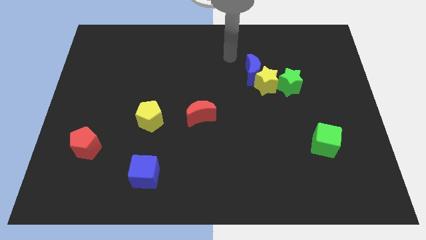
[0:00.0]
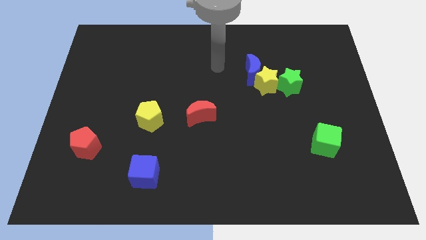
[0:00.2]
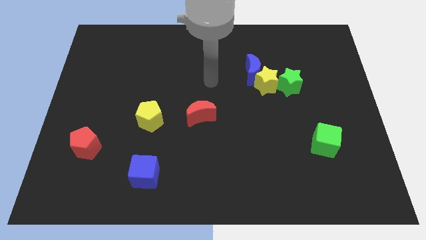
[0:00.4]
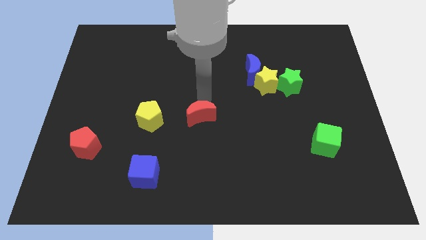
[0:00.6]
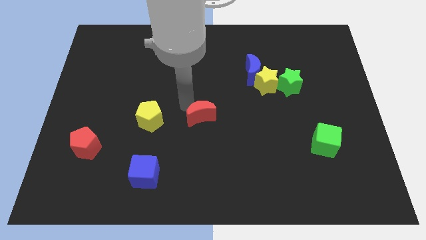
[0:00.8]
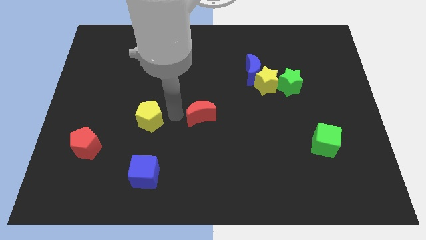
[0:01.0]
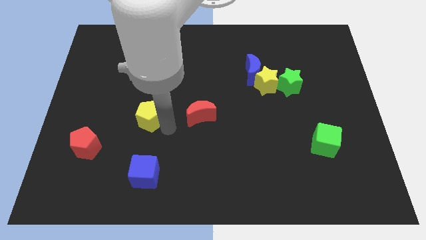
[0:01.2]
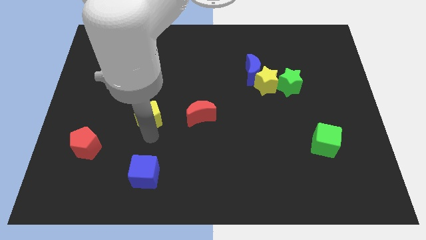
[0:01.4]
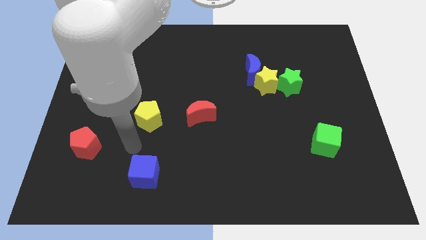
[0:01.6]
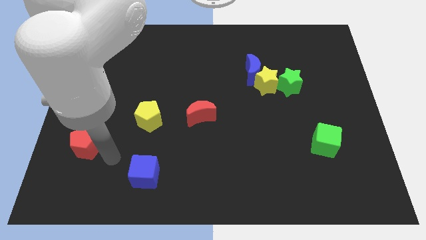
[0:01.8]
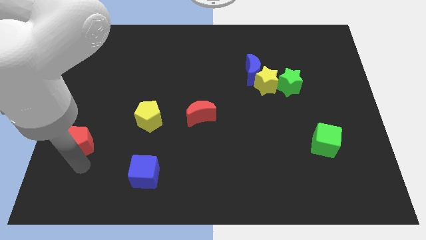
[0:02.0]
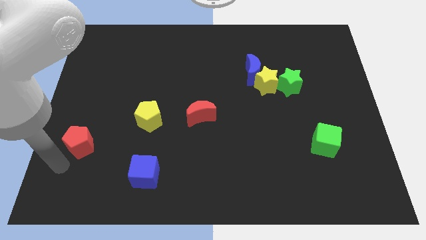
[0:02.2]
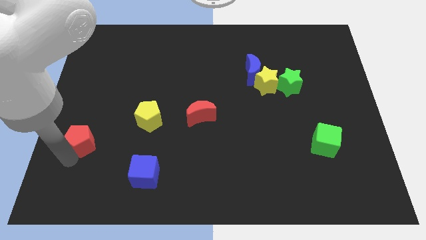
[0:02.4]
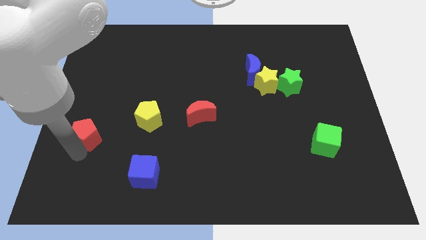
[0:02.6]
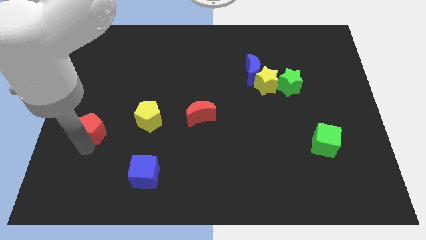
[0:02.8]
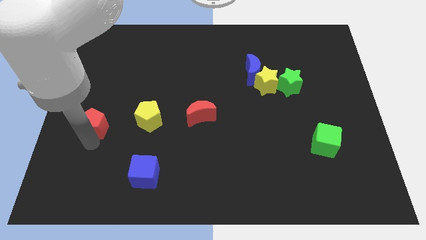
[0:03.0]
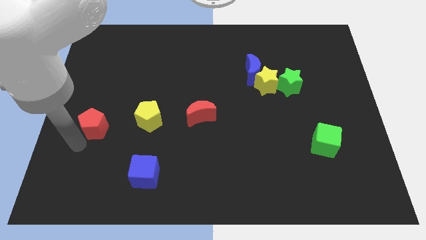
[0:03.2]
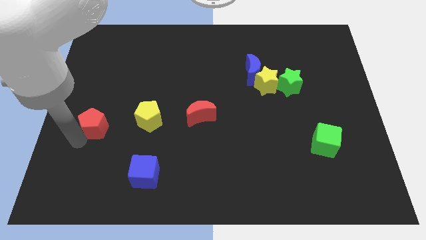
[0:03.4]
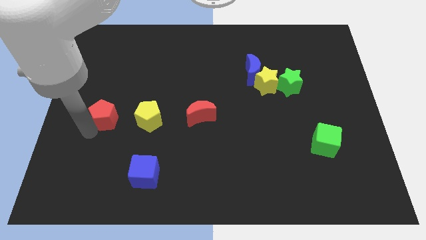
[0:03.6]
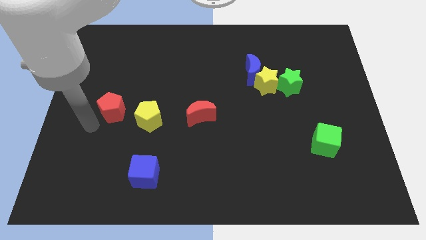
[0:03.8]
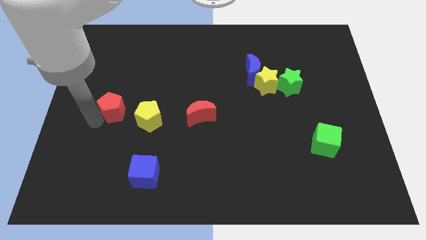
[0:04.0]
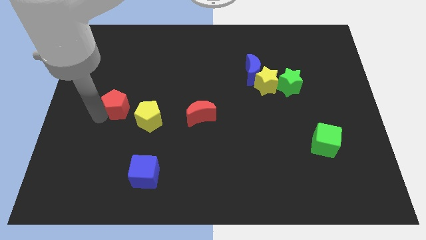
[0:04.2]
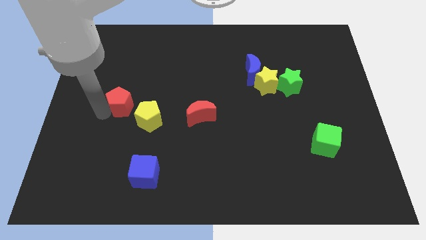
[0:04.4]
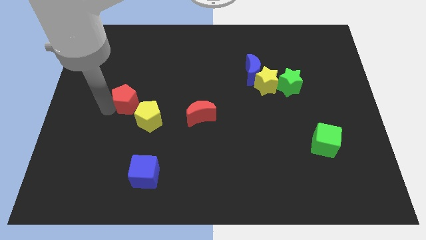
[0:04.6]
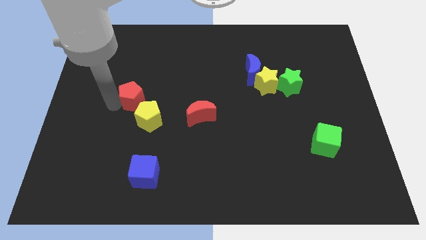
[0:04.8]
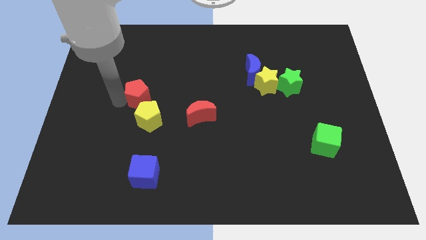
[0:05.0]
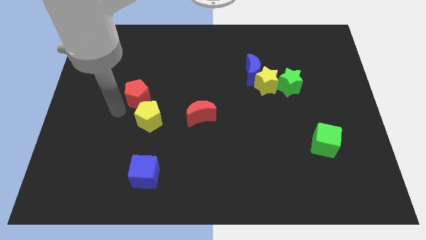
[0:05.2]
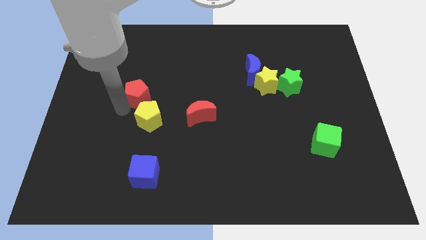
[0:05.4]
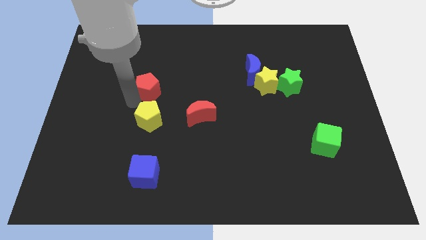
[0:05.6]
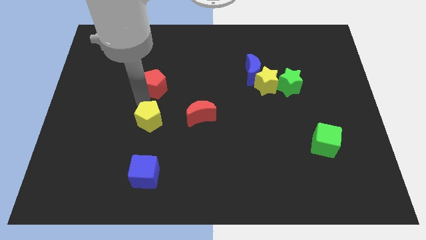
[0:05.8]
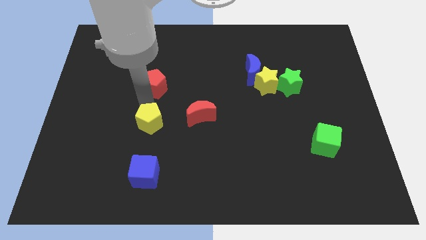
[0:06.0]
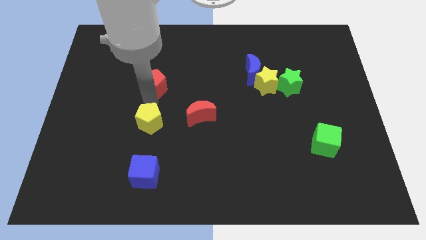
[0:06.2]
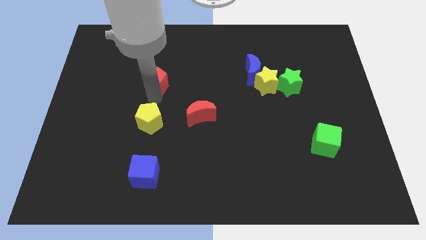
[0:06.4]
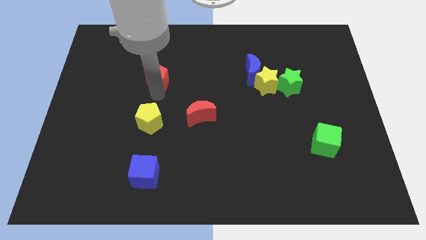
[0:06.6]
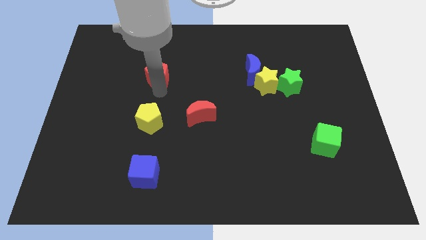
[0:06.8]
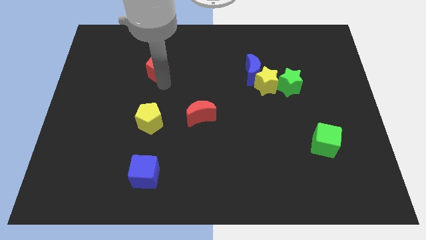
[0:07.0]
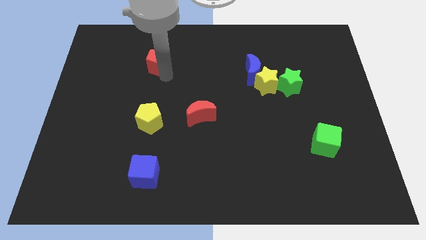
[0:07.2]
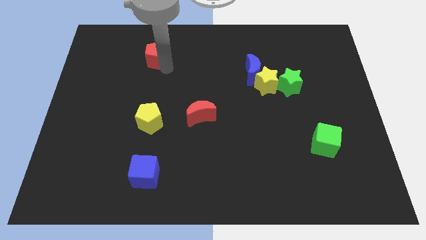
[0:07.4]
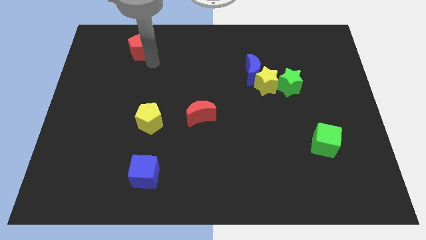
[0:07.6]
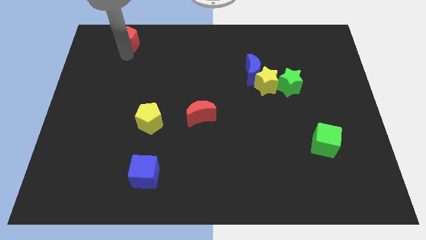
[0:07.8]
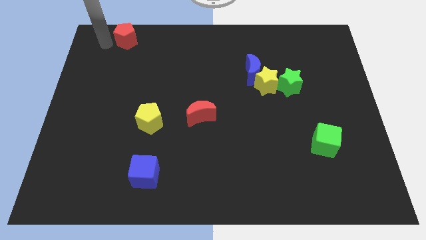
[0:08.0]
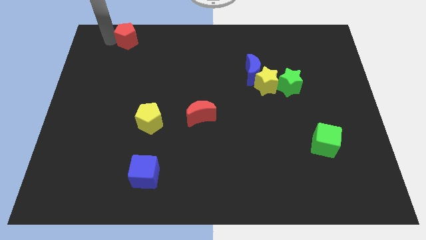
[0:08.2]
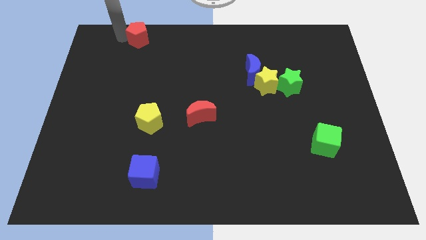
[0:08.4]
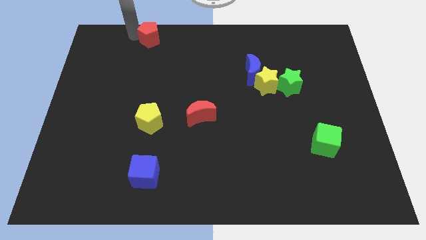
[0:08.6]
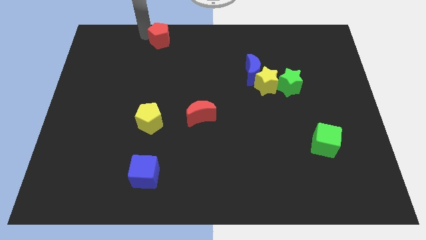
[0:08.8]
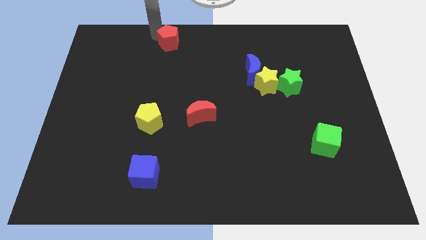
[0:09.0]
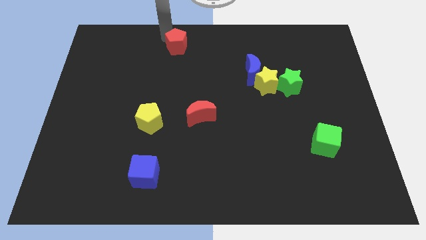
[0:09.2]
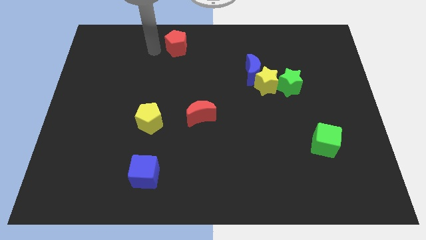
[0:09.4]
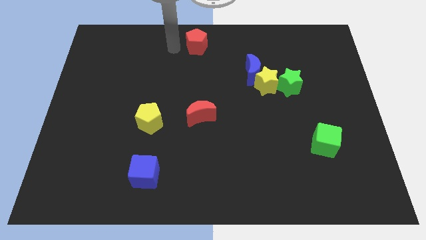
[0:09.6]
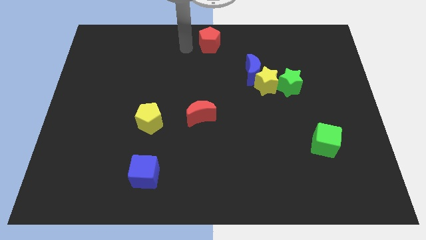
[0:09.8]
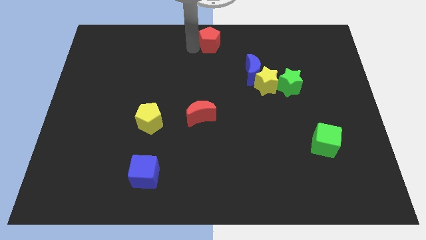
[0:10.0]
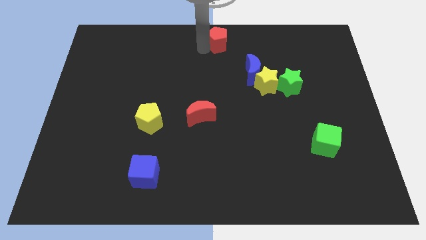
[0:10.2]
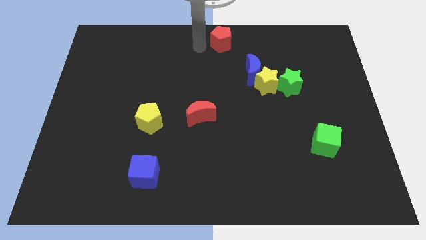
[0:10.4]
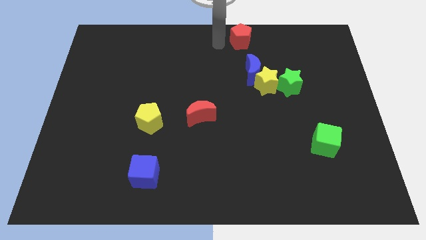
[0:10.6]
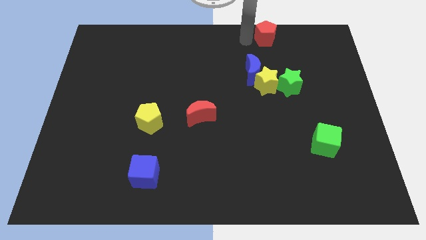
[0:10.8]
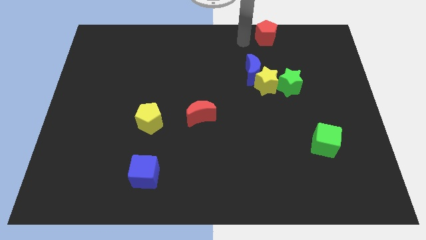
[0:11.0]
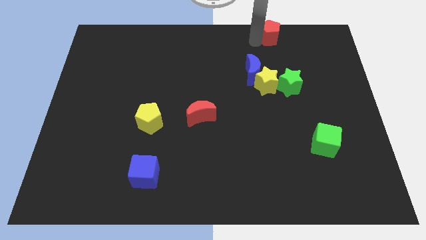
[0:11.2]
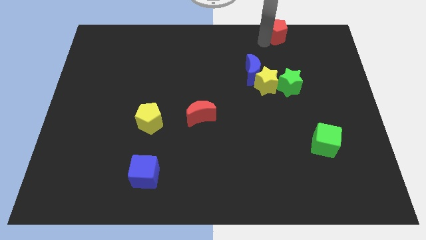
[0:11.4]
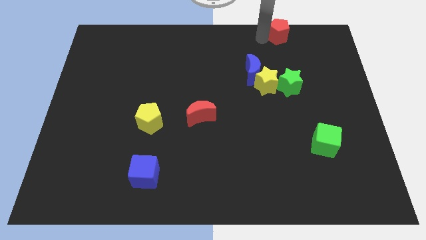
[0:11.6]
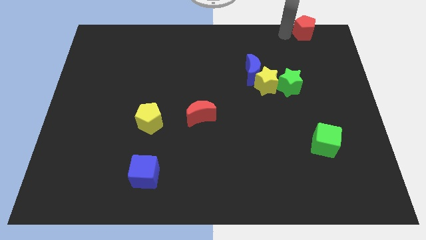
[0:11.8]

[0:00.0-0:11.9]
slide the red pentagon to the upper right corner

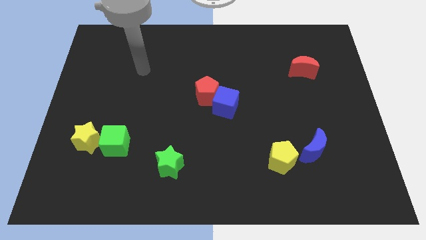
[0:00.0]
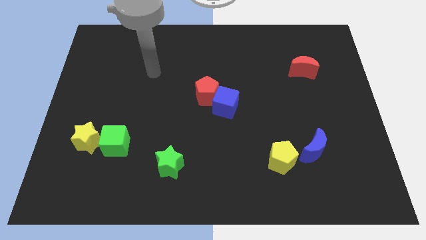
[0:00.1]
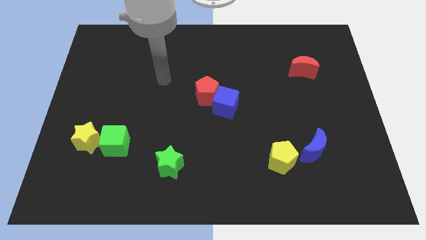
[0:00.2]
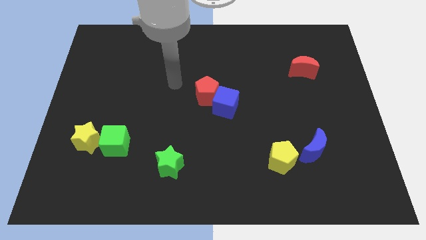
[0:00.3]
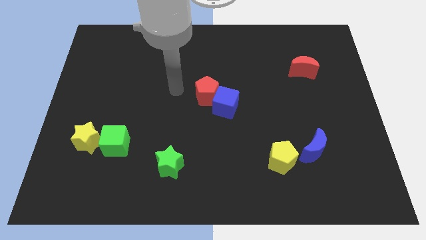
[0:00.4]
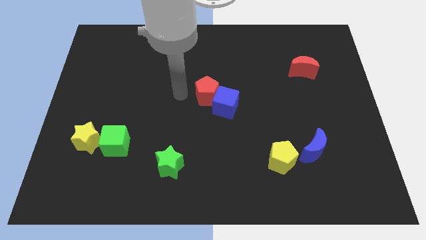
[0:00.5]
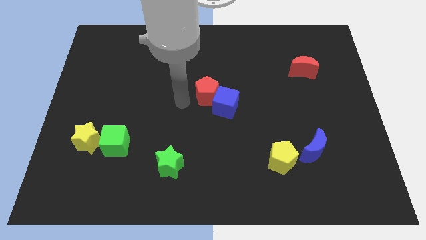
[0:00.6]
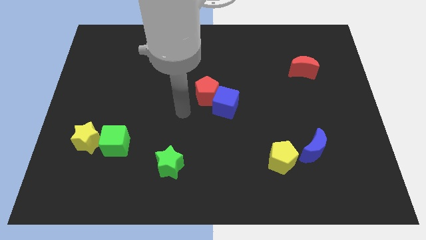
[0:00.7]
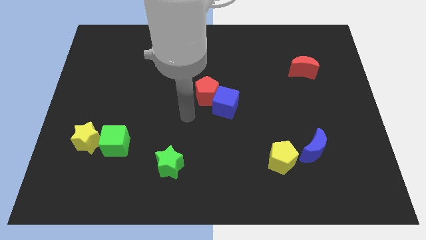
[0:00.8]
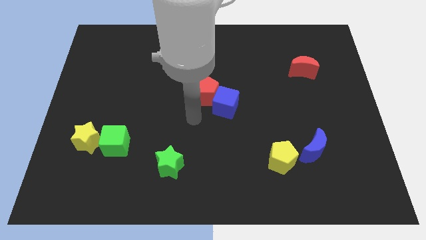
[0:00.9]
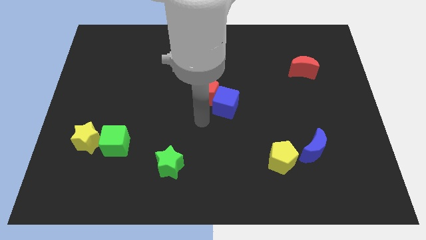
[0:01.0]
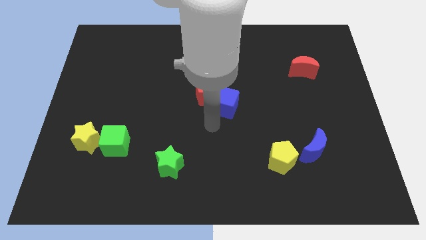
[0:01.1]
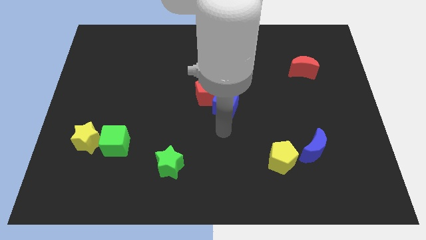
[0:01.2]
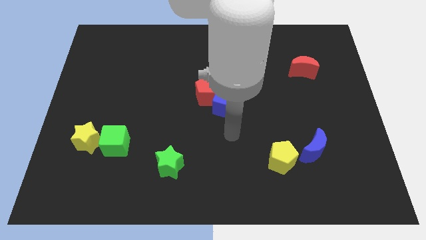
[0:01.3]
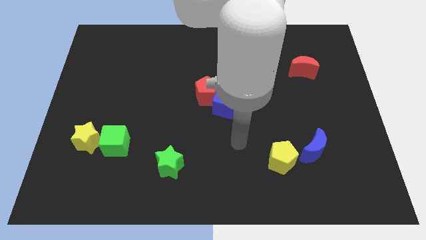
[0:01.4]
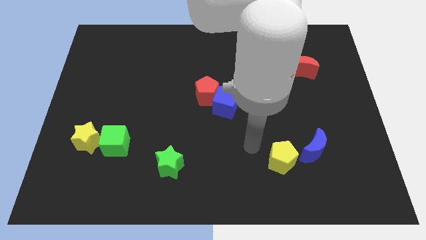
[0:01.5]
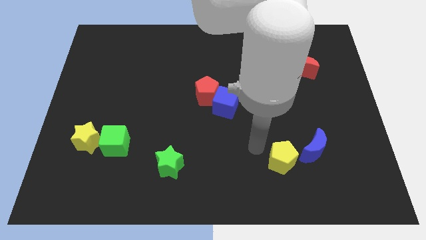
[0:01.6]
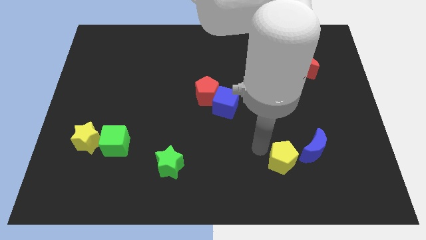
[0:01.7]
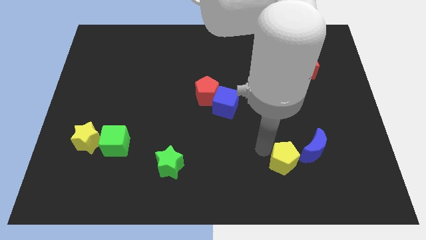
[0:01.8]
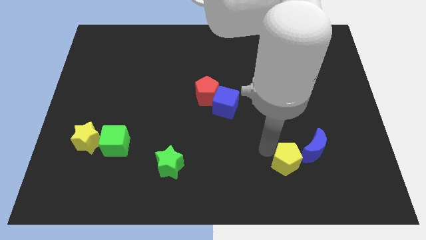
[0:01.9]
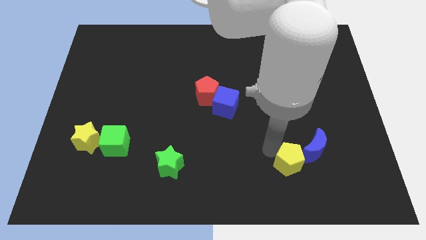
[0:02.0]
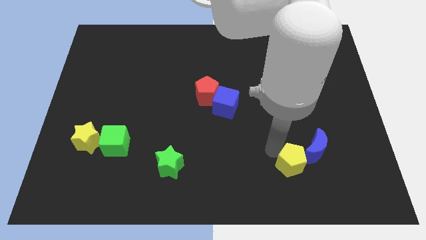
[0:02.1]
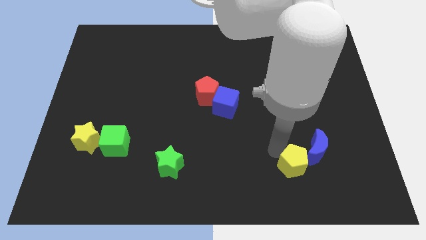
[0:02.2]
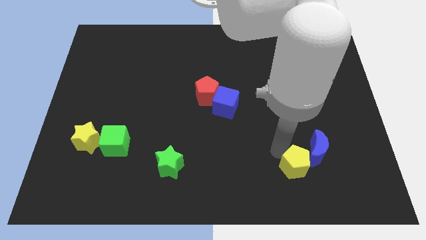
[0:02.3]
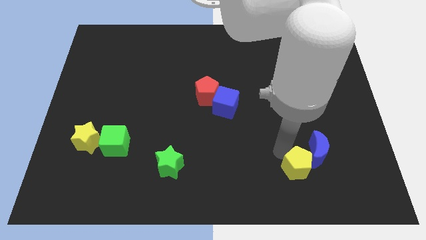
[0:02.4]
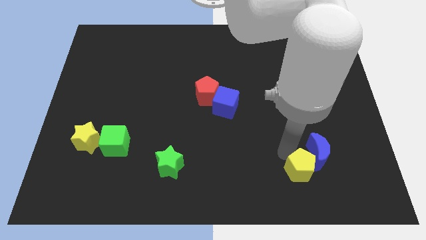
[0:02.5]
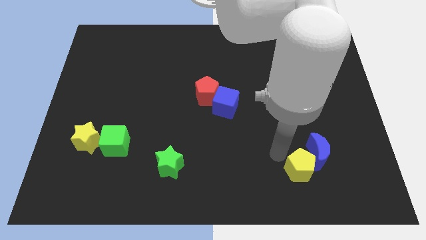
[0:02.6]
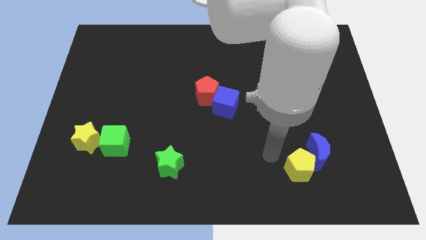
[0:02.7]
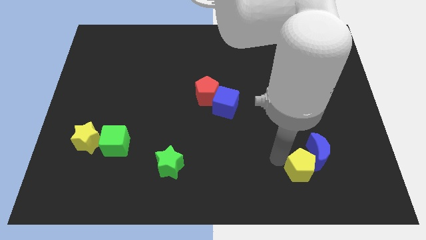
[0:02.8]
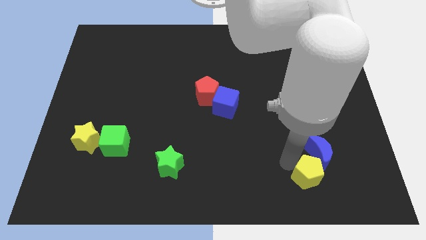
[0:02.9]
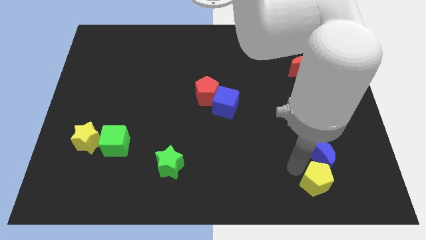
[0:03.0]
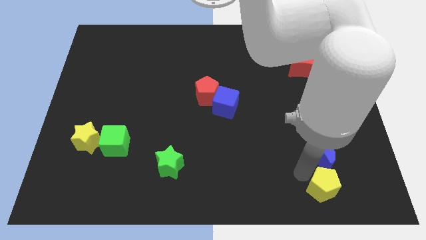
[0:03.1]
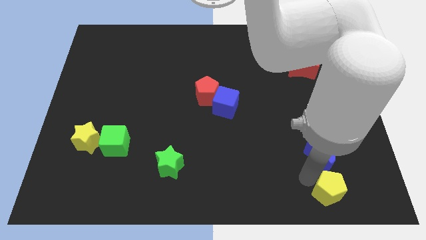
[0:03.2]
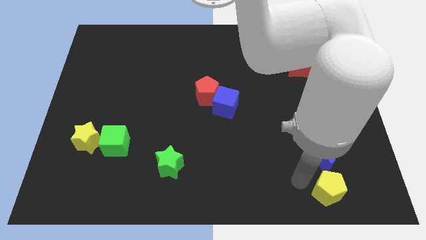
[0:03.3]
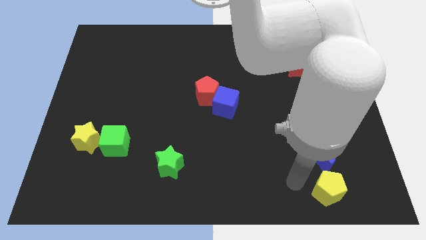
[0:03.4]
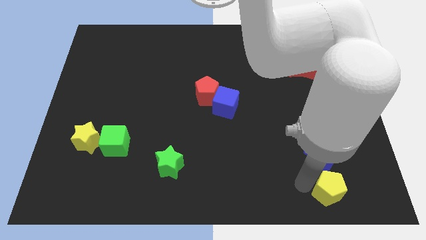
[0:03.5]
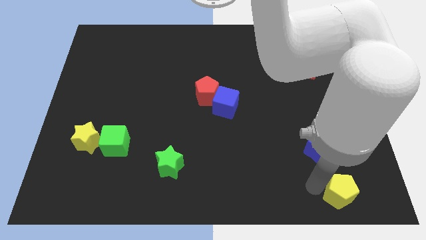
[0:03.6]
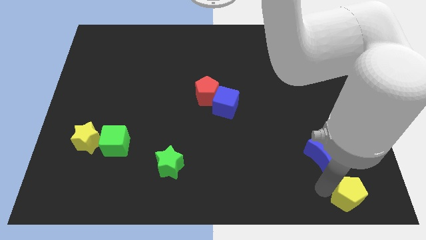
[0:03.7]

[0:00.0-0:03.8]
push the yellow pentagon to the bottom right
